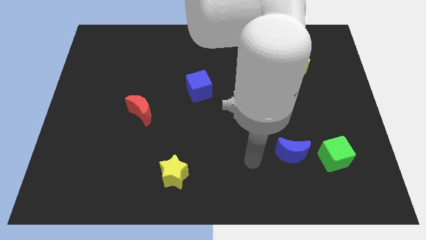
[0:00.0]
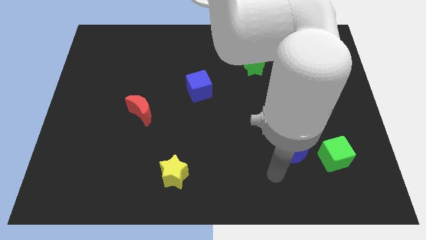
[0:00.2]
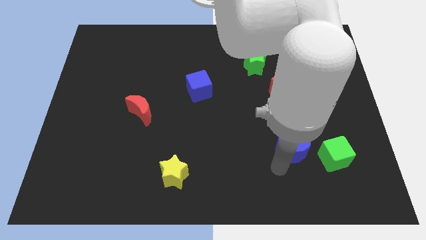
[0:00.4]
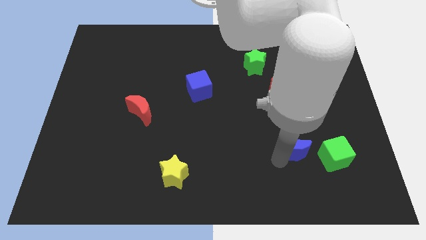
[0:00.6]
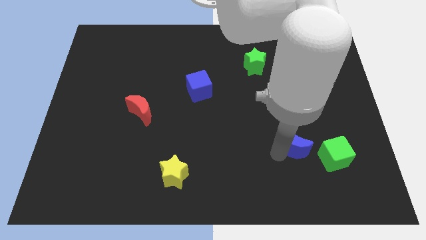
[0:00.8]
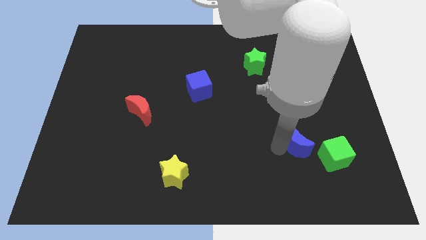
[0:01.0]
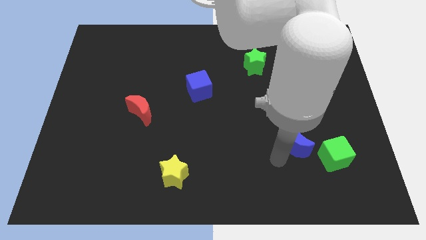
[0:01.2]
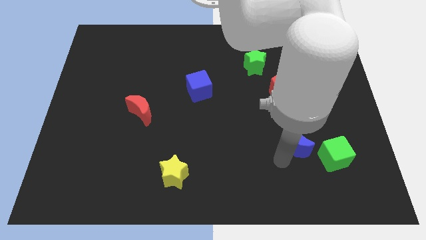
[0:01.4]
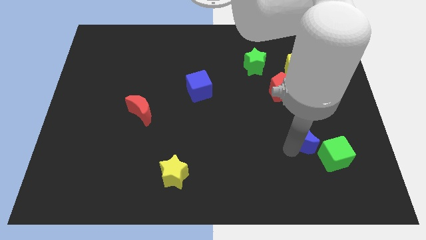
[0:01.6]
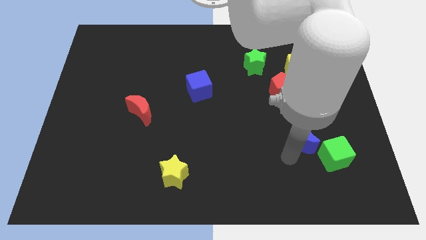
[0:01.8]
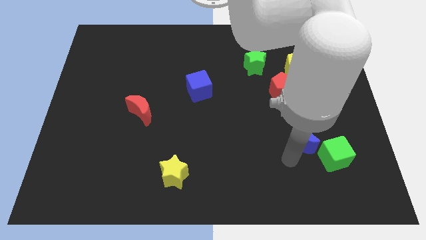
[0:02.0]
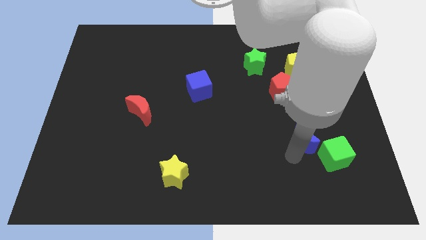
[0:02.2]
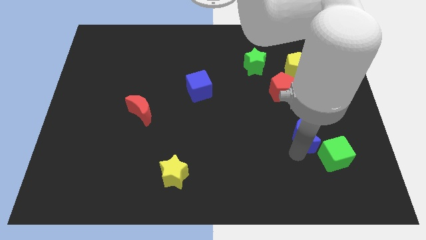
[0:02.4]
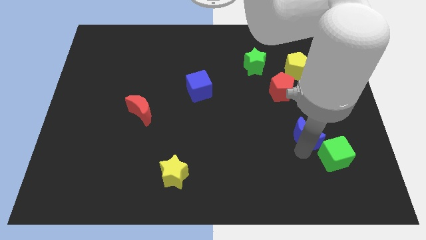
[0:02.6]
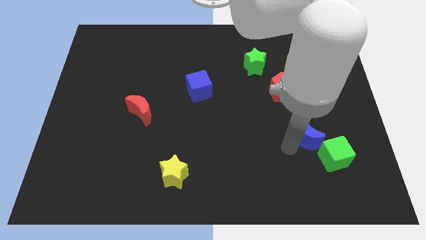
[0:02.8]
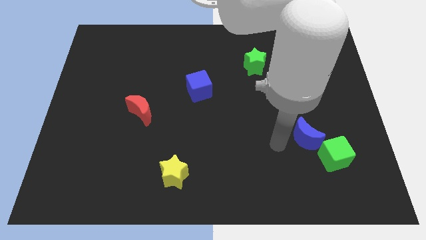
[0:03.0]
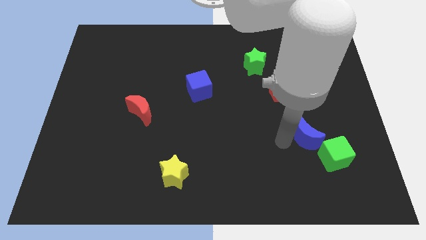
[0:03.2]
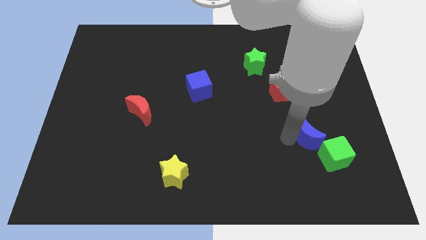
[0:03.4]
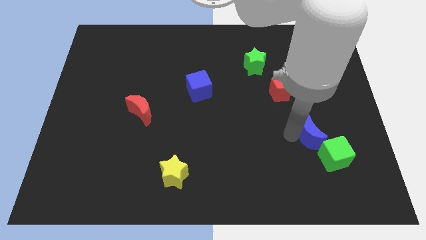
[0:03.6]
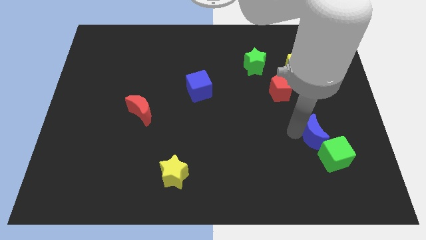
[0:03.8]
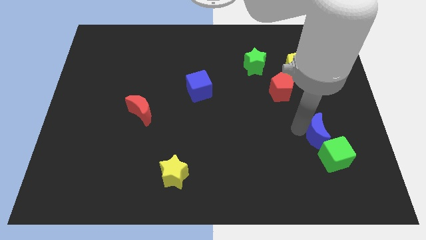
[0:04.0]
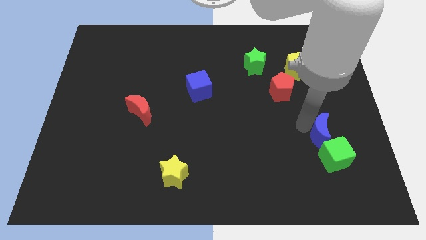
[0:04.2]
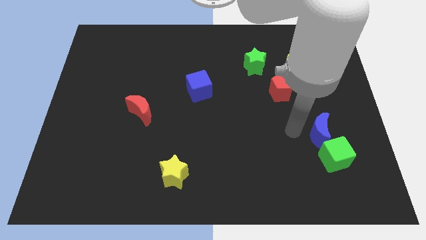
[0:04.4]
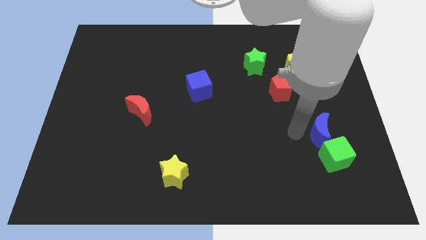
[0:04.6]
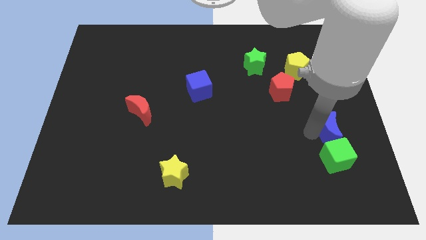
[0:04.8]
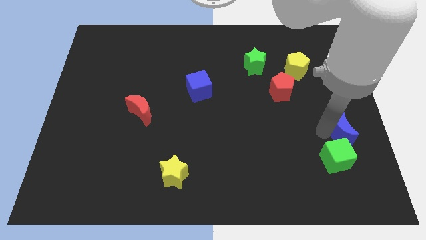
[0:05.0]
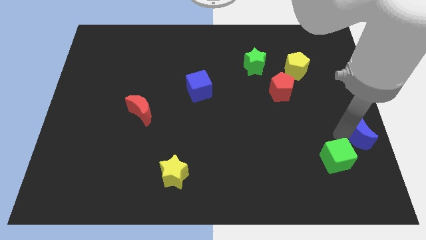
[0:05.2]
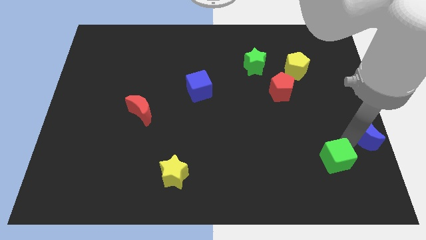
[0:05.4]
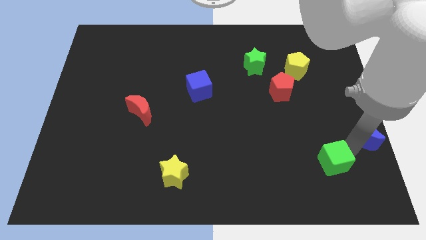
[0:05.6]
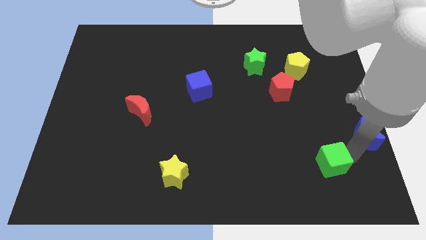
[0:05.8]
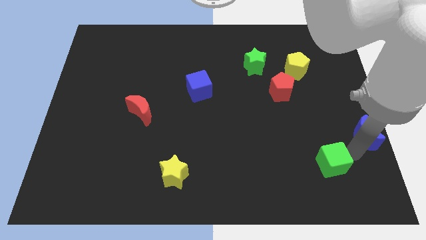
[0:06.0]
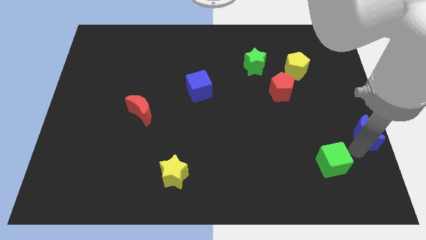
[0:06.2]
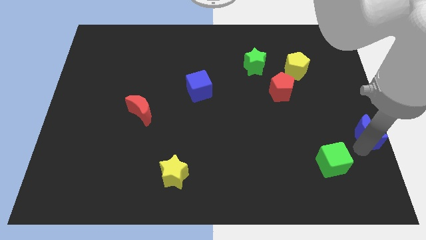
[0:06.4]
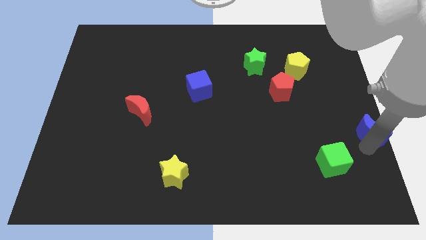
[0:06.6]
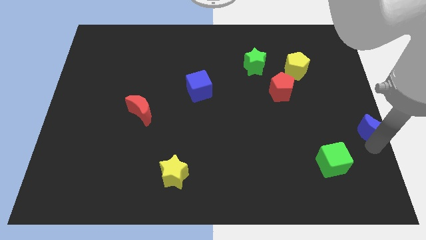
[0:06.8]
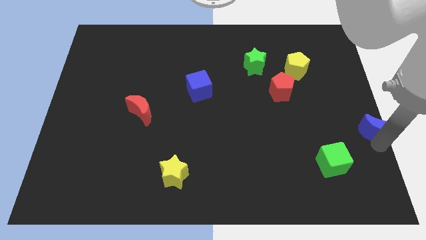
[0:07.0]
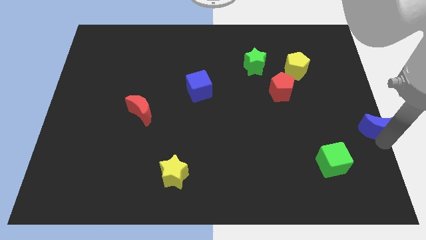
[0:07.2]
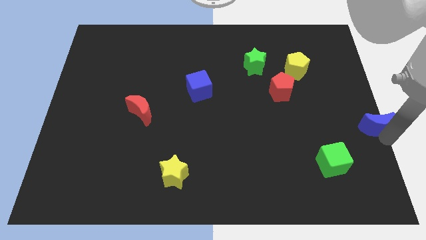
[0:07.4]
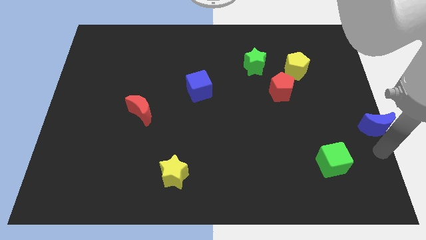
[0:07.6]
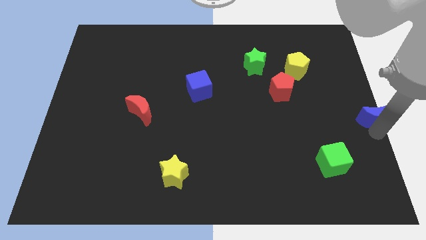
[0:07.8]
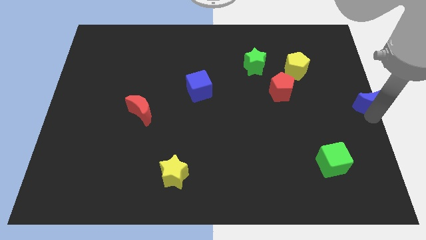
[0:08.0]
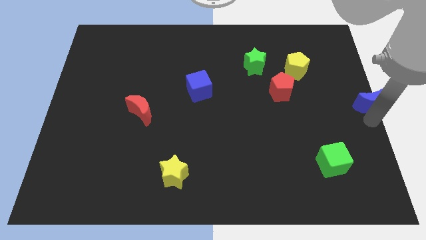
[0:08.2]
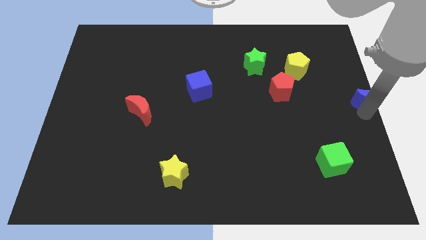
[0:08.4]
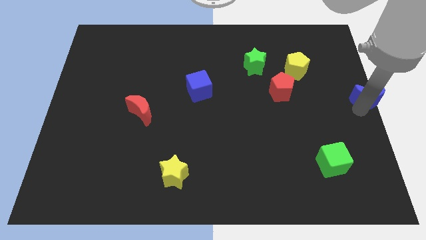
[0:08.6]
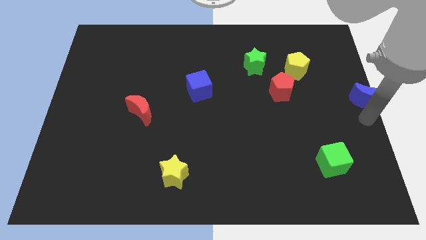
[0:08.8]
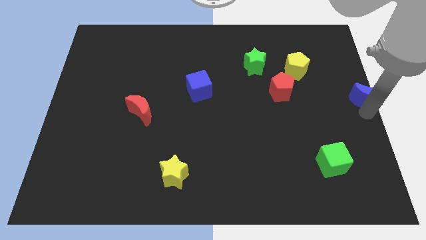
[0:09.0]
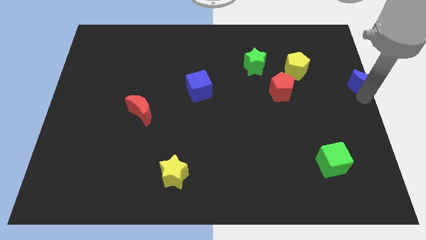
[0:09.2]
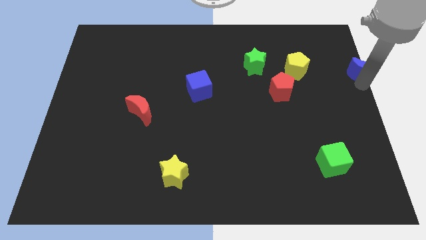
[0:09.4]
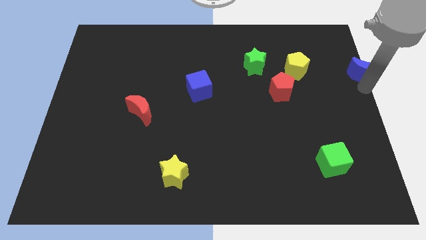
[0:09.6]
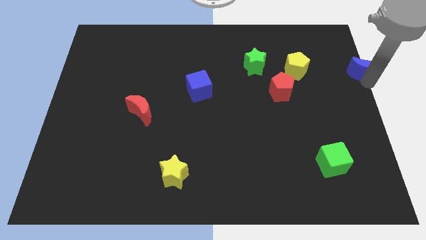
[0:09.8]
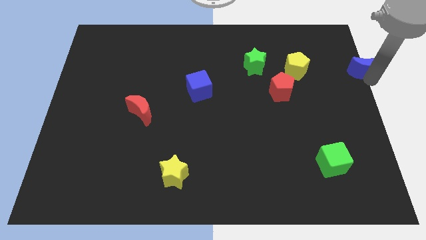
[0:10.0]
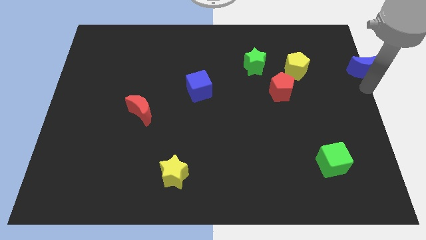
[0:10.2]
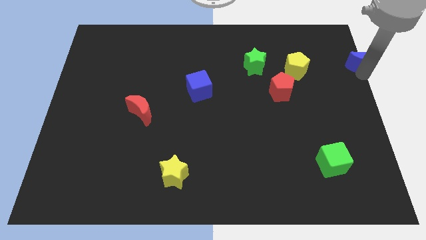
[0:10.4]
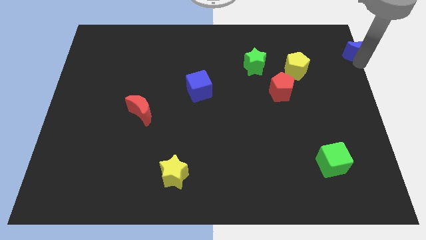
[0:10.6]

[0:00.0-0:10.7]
push the blue moon to the upper right corner

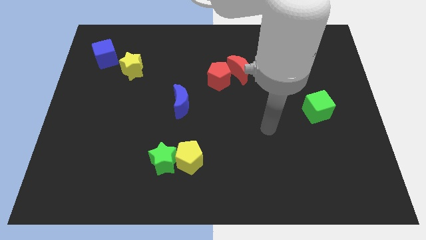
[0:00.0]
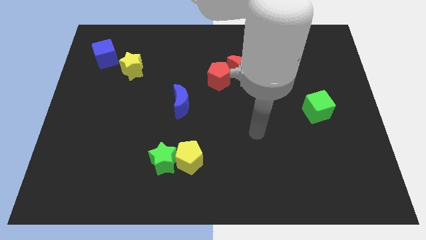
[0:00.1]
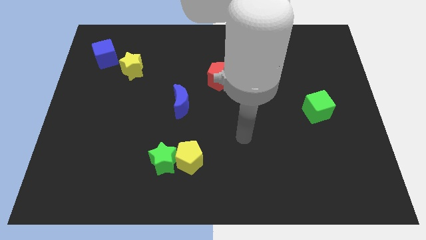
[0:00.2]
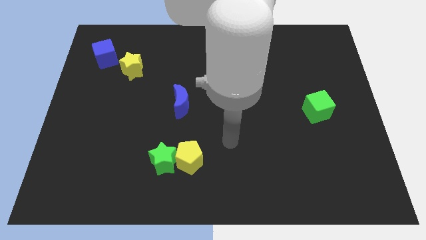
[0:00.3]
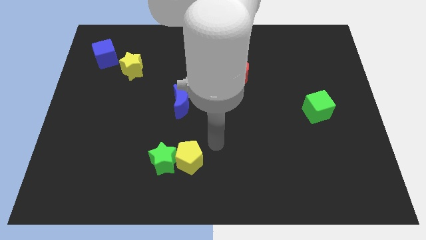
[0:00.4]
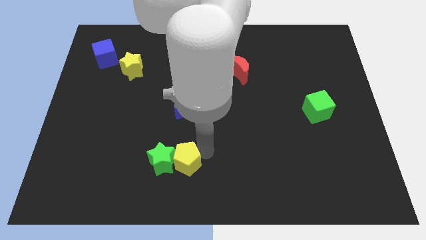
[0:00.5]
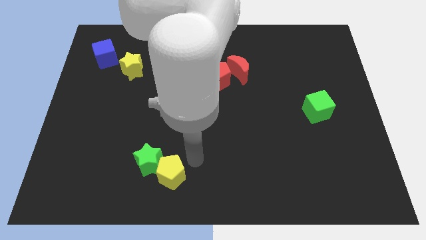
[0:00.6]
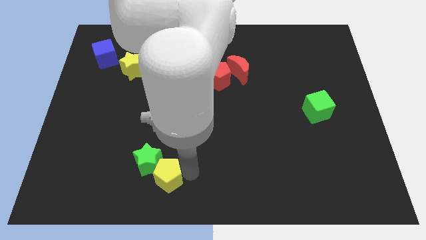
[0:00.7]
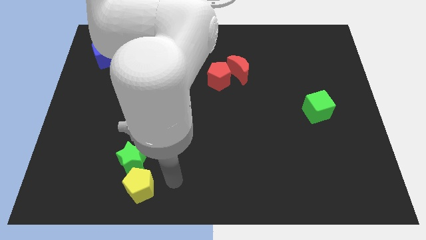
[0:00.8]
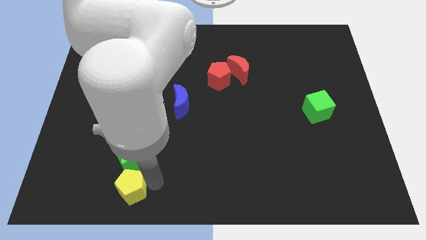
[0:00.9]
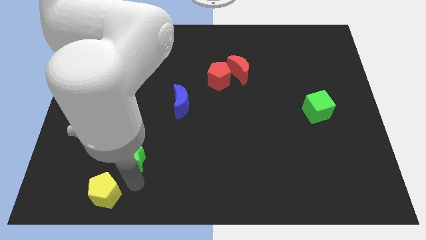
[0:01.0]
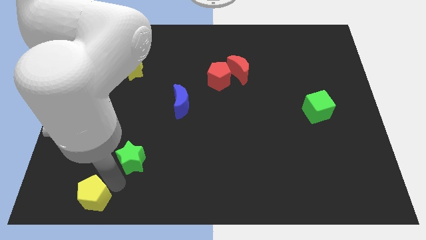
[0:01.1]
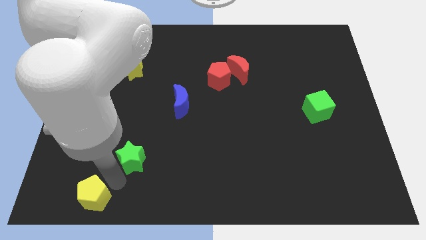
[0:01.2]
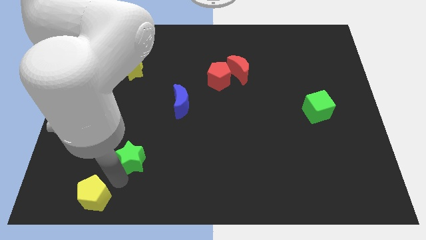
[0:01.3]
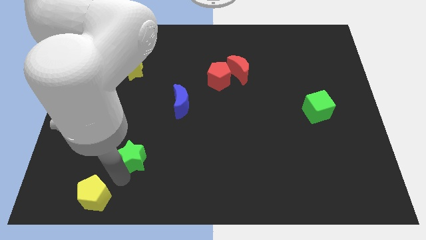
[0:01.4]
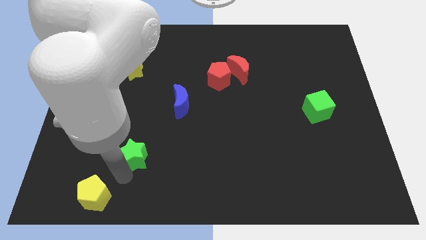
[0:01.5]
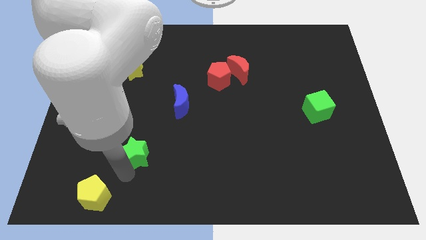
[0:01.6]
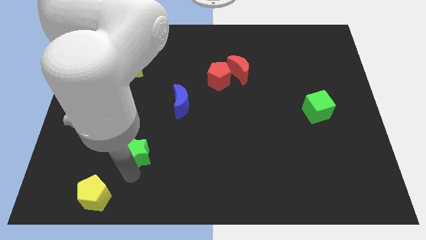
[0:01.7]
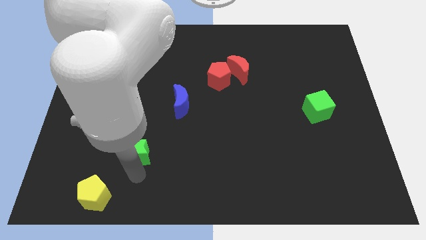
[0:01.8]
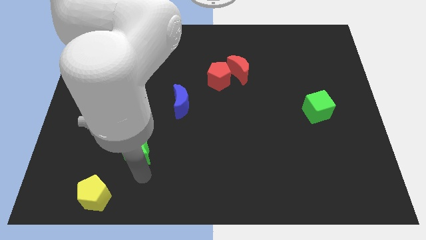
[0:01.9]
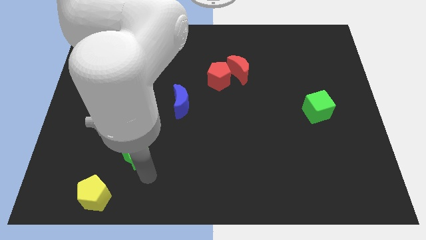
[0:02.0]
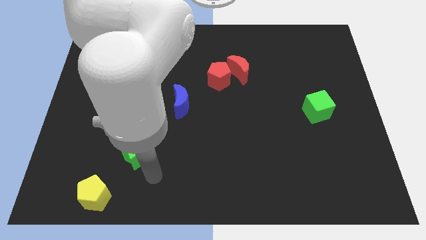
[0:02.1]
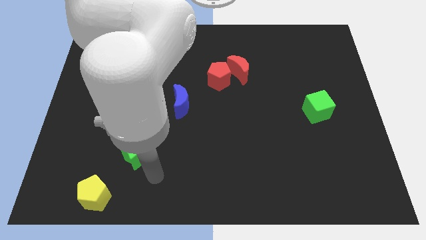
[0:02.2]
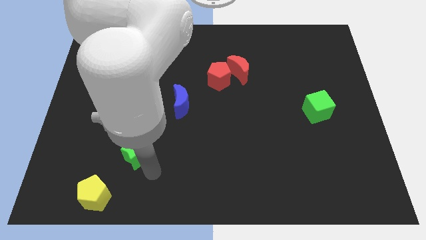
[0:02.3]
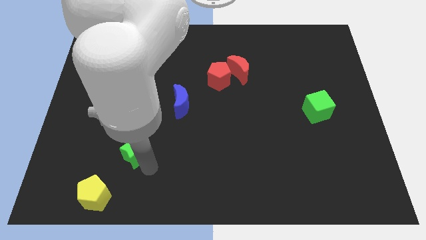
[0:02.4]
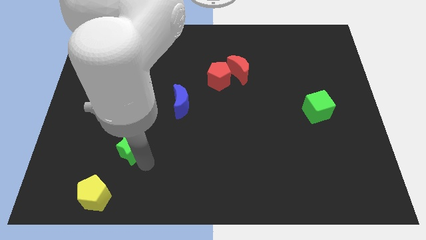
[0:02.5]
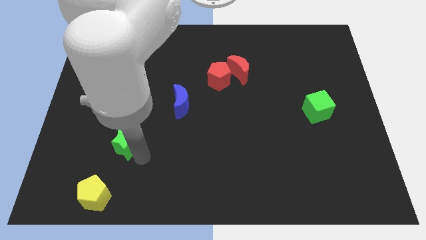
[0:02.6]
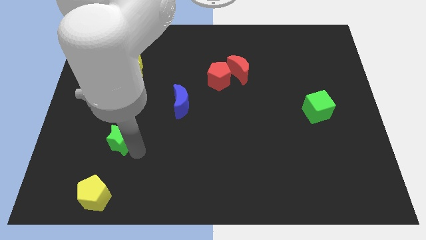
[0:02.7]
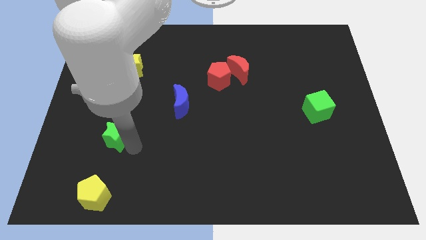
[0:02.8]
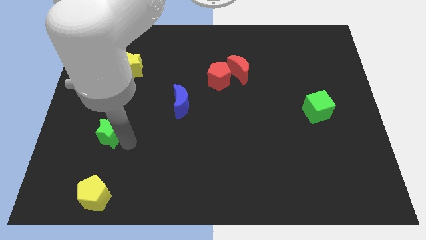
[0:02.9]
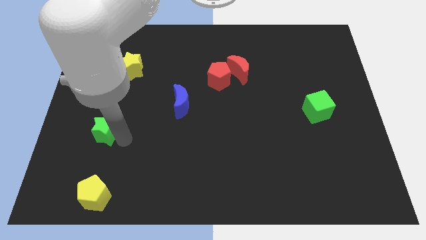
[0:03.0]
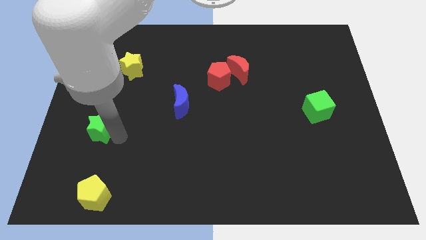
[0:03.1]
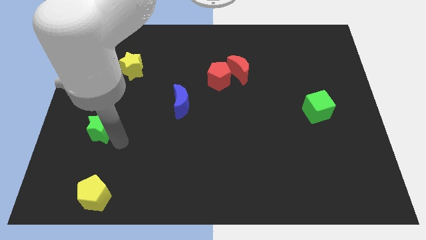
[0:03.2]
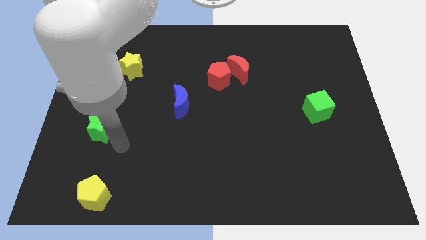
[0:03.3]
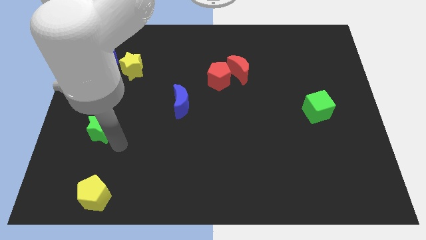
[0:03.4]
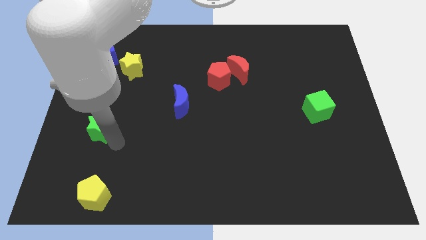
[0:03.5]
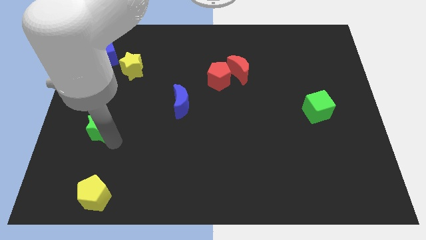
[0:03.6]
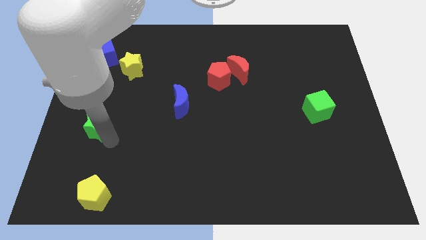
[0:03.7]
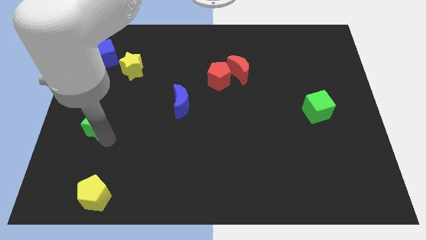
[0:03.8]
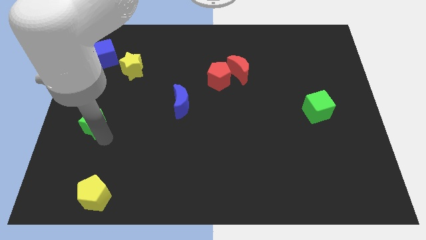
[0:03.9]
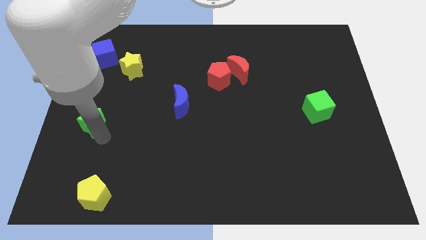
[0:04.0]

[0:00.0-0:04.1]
put the green star to the left side
